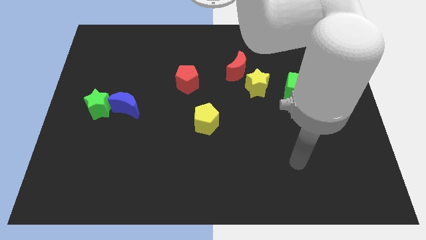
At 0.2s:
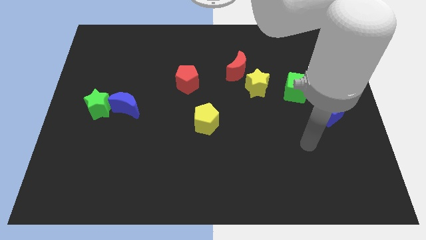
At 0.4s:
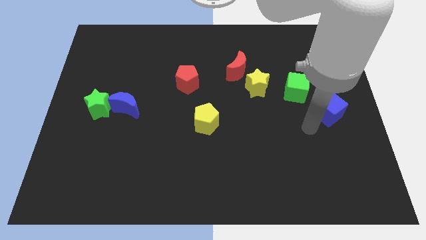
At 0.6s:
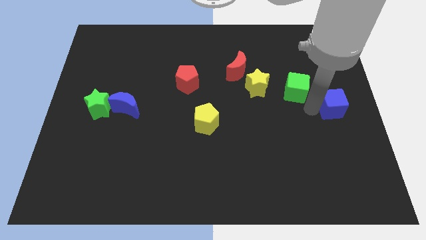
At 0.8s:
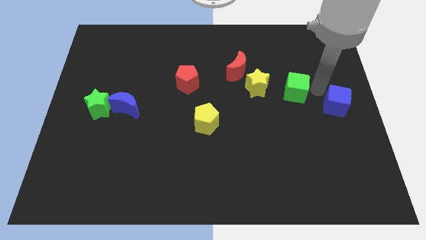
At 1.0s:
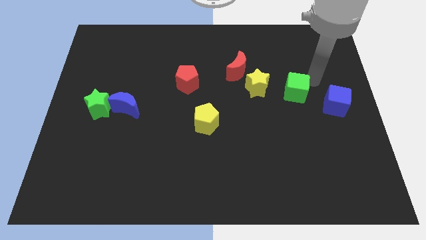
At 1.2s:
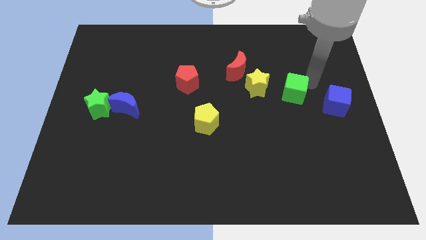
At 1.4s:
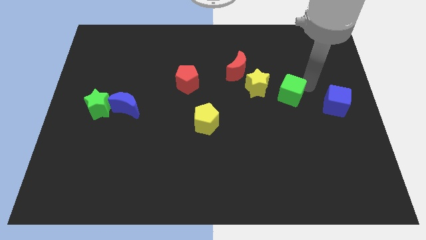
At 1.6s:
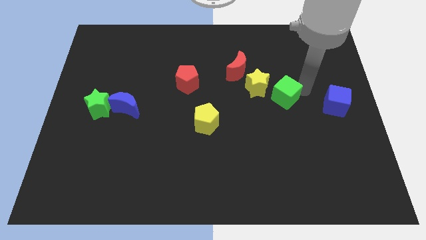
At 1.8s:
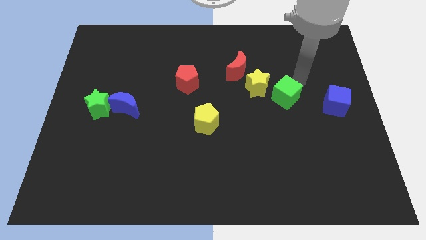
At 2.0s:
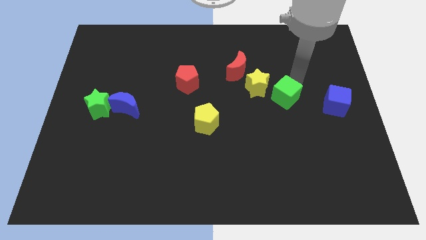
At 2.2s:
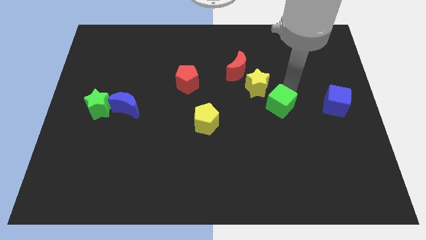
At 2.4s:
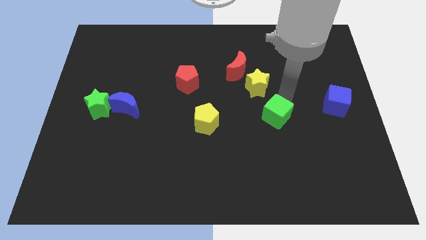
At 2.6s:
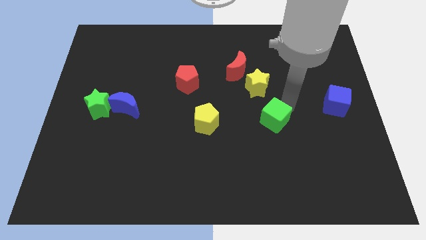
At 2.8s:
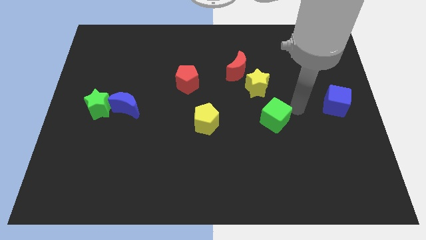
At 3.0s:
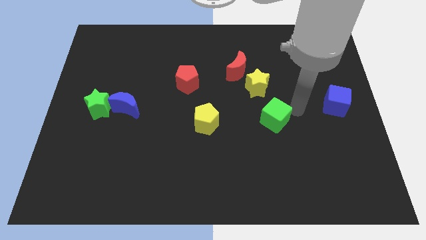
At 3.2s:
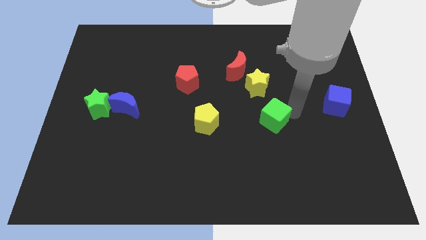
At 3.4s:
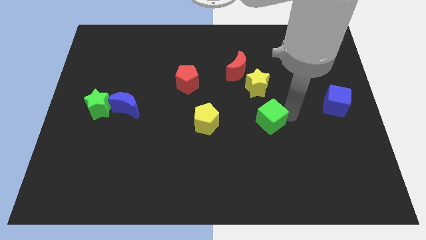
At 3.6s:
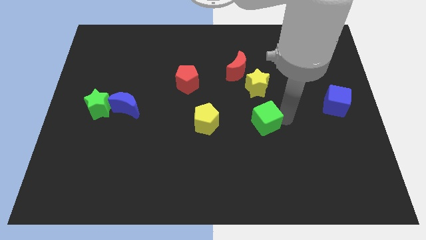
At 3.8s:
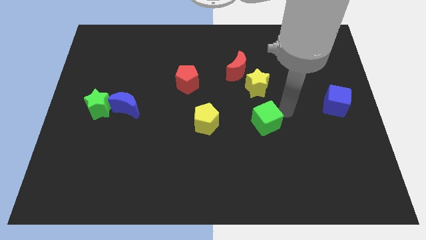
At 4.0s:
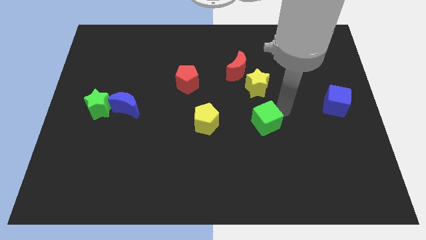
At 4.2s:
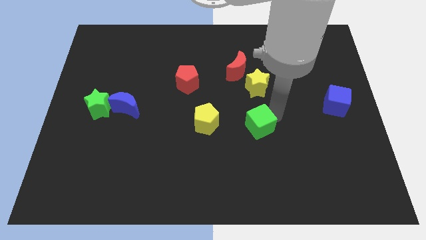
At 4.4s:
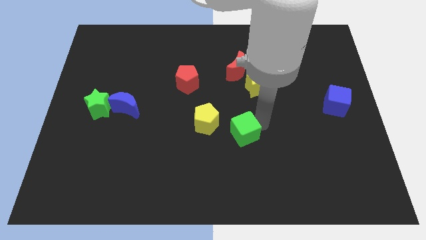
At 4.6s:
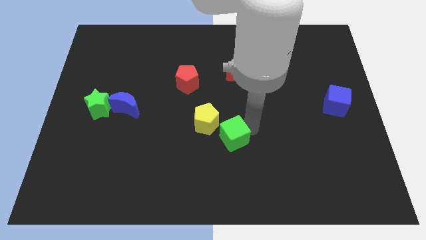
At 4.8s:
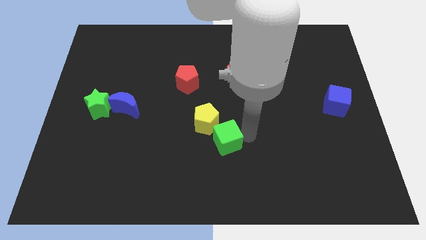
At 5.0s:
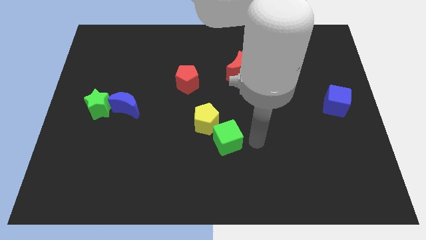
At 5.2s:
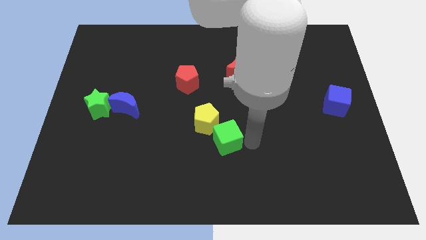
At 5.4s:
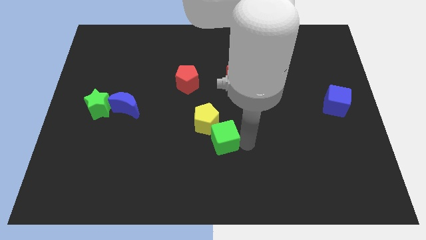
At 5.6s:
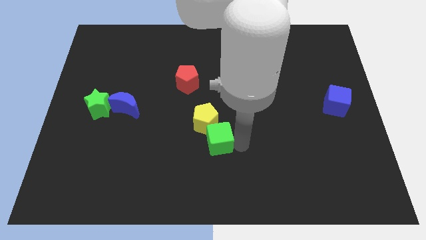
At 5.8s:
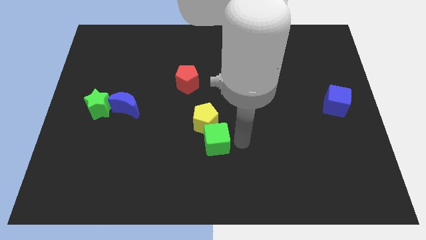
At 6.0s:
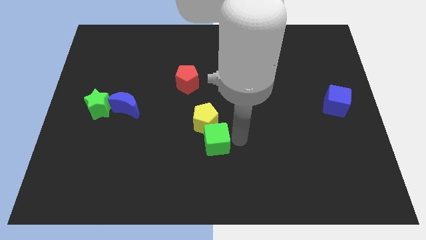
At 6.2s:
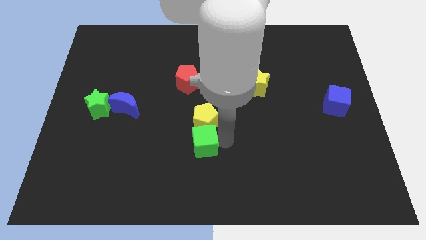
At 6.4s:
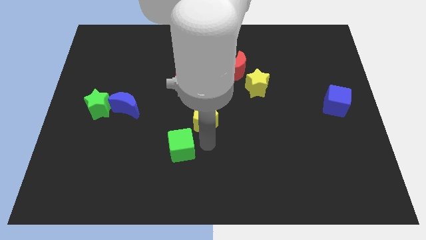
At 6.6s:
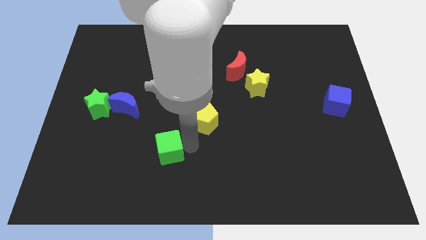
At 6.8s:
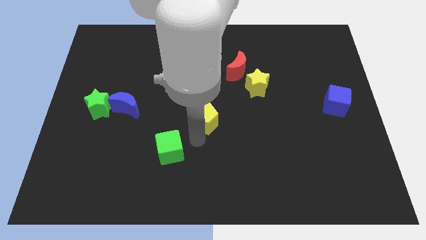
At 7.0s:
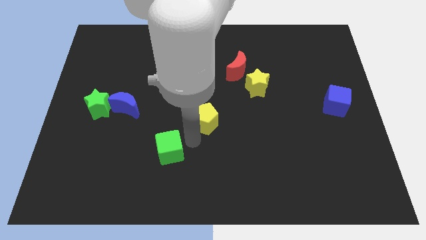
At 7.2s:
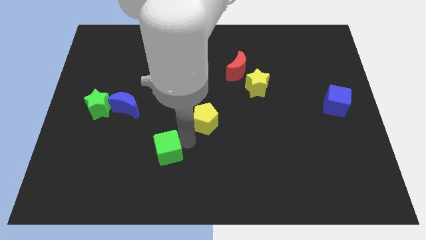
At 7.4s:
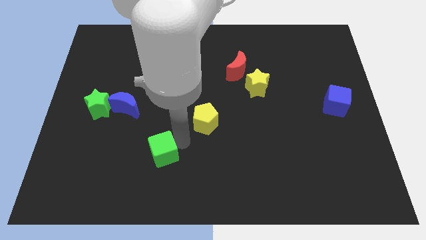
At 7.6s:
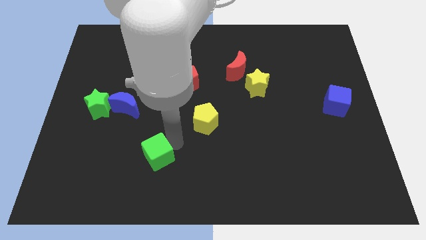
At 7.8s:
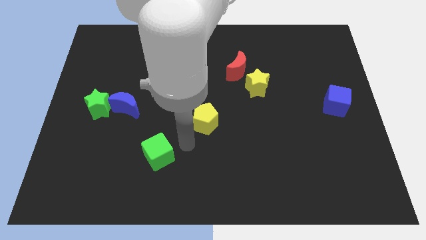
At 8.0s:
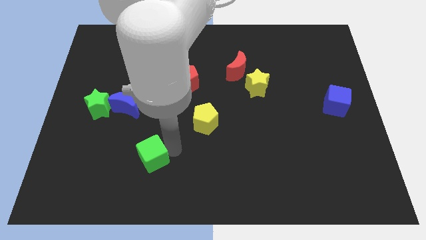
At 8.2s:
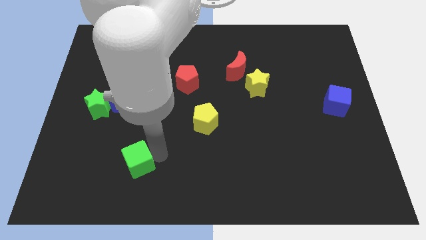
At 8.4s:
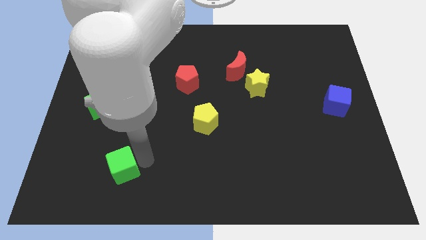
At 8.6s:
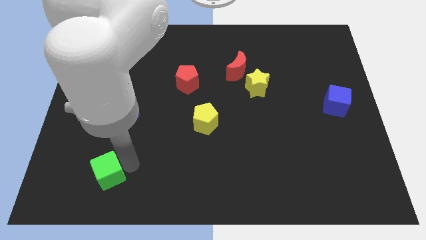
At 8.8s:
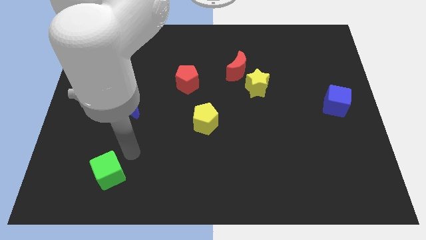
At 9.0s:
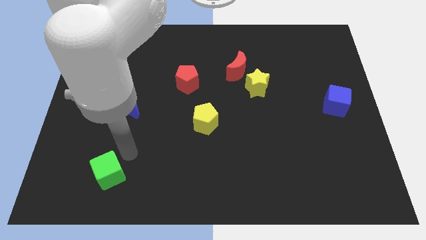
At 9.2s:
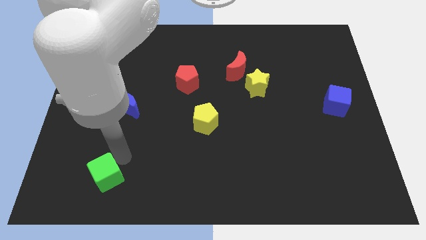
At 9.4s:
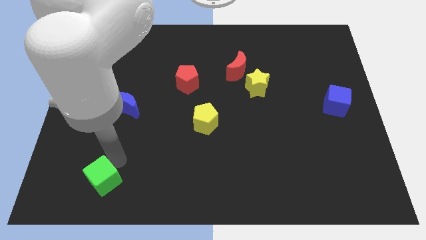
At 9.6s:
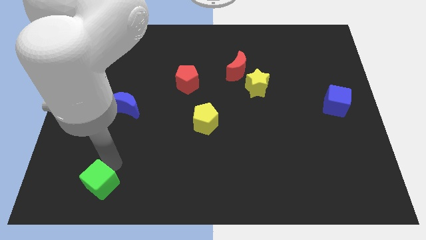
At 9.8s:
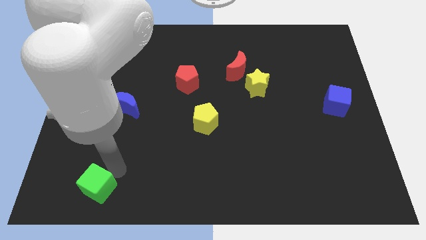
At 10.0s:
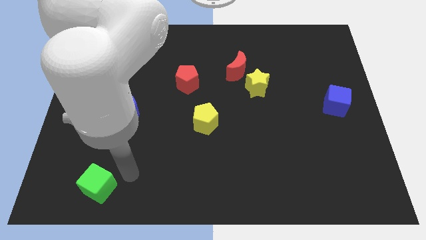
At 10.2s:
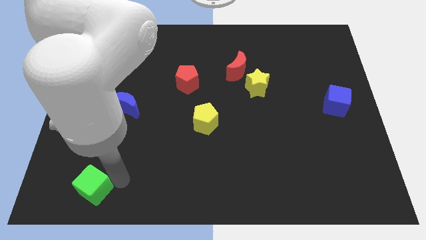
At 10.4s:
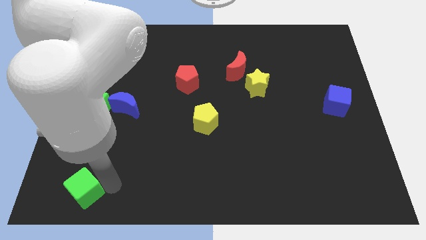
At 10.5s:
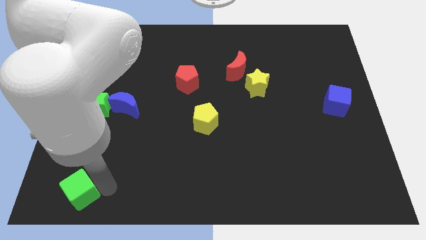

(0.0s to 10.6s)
put the green cube to the lower left corner
